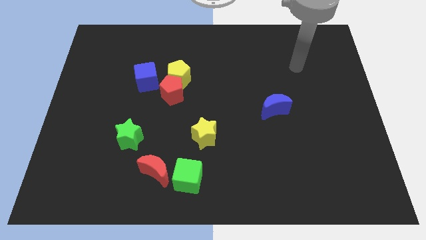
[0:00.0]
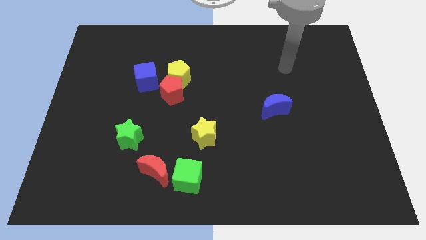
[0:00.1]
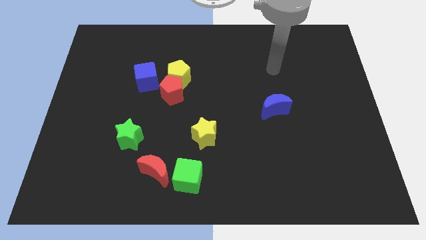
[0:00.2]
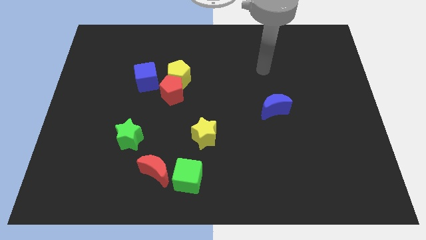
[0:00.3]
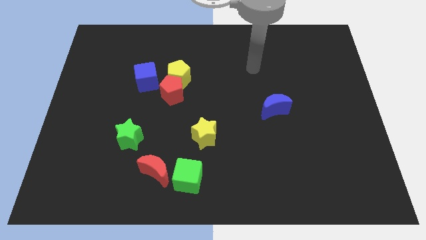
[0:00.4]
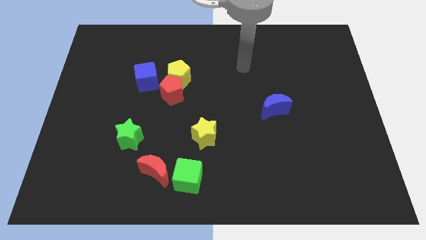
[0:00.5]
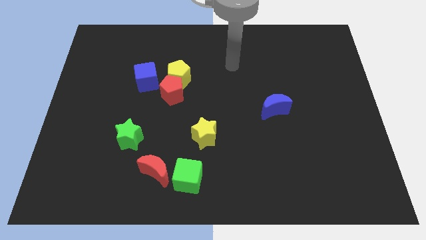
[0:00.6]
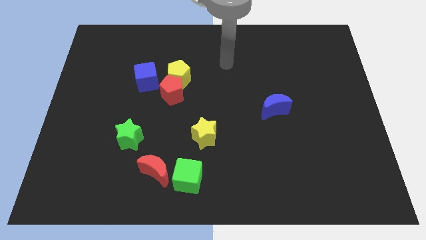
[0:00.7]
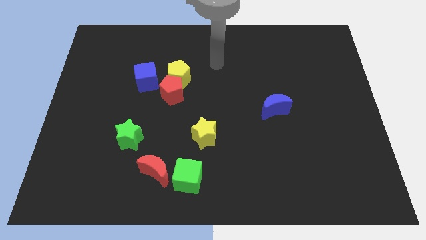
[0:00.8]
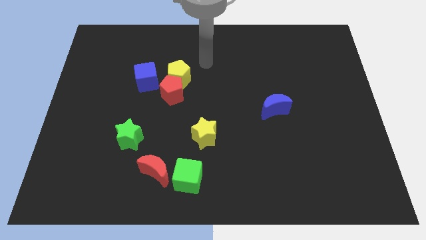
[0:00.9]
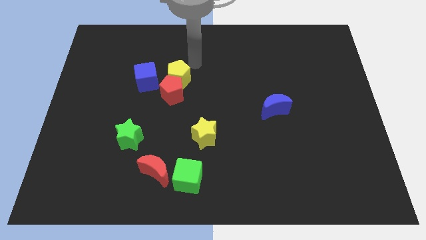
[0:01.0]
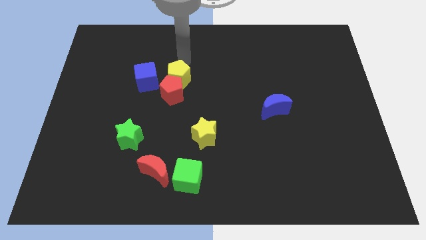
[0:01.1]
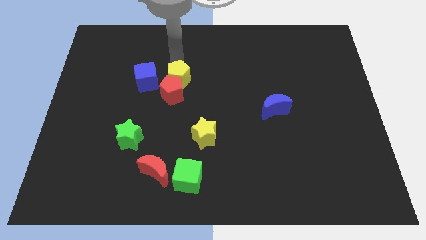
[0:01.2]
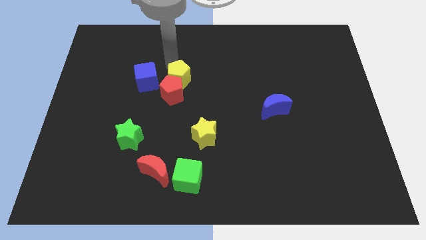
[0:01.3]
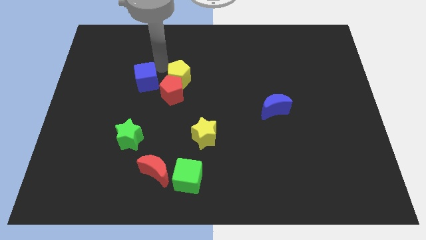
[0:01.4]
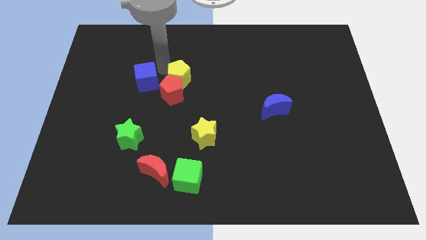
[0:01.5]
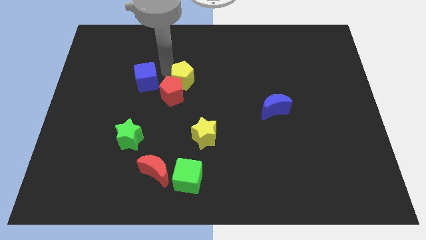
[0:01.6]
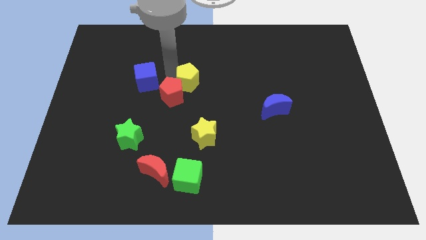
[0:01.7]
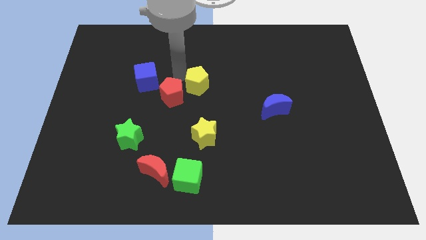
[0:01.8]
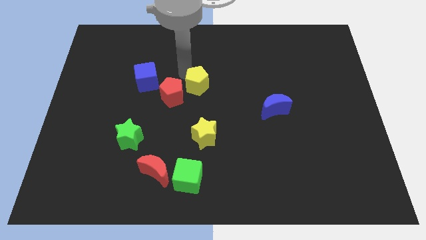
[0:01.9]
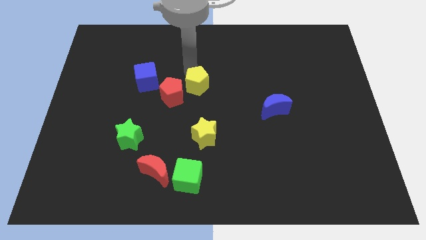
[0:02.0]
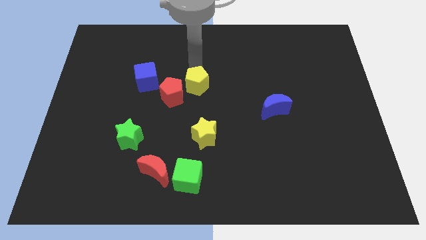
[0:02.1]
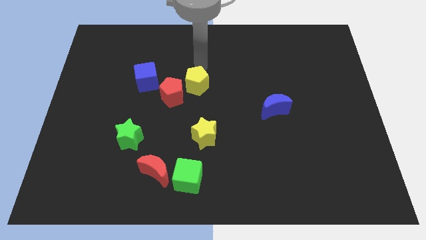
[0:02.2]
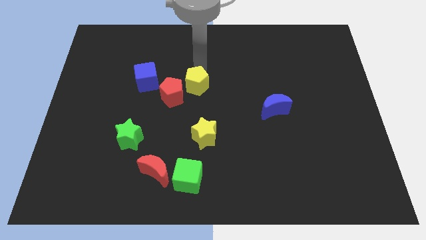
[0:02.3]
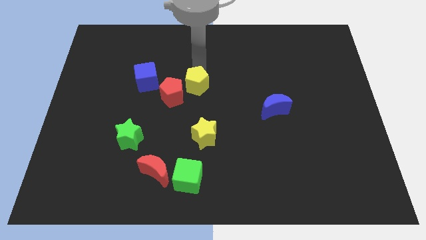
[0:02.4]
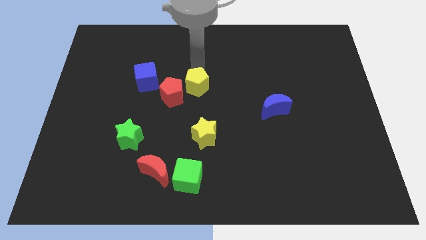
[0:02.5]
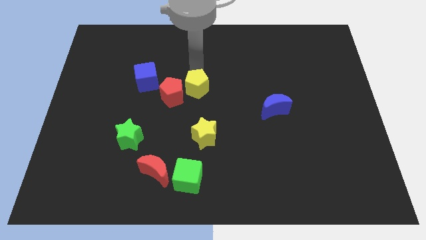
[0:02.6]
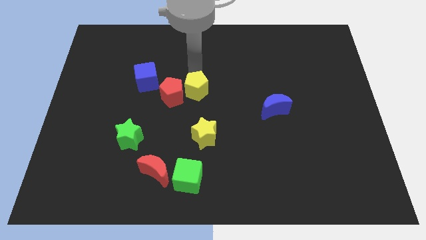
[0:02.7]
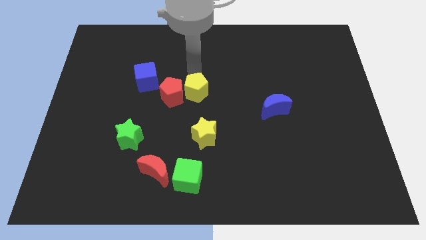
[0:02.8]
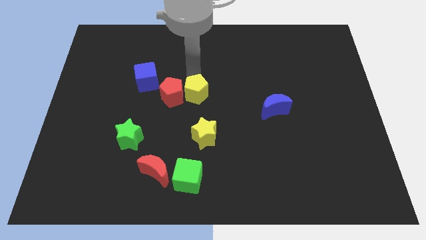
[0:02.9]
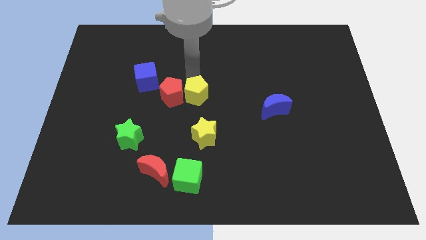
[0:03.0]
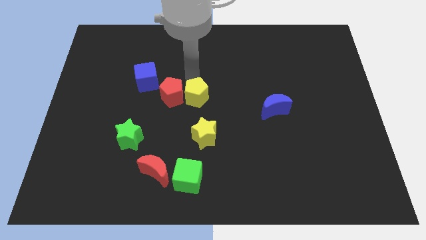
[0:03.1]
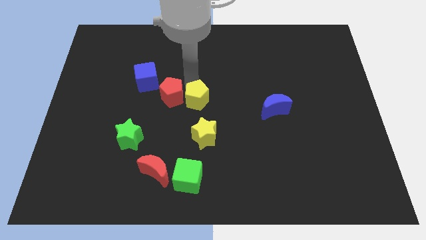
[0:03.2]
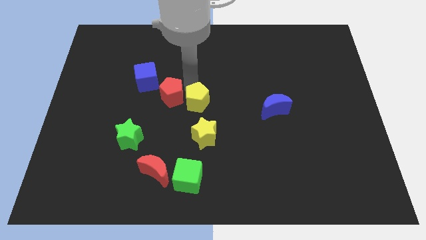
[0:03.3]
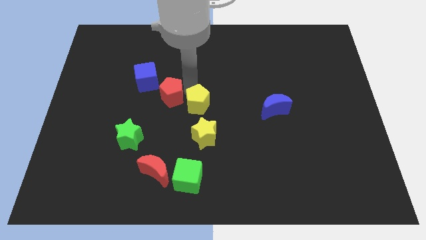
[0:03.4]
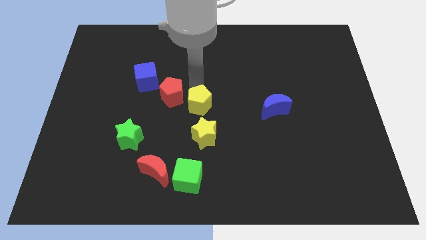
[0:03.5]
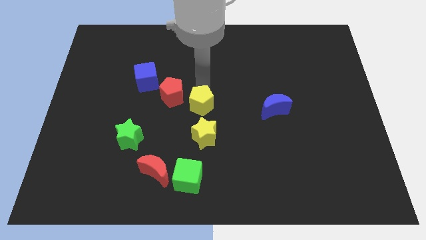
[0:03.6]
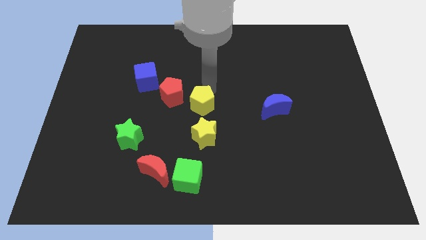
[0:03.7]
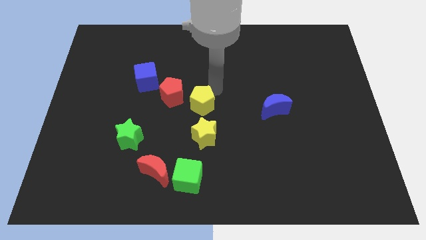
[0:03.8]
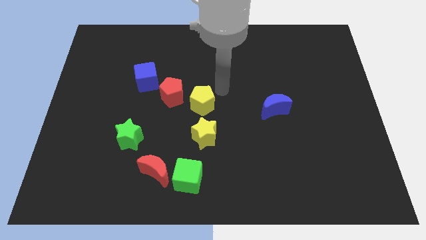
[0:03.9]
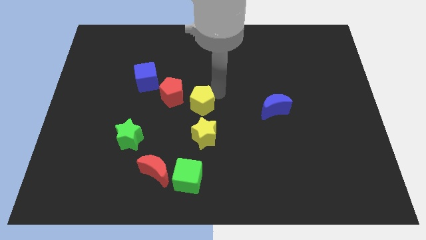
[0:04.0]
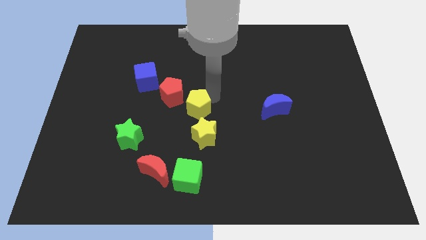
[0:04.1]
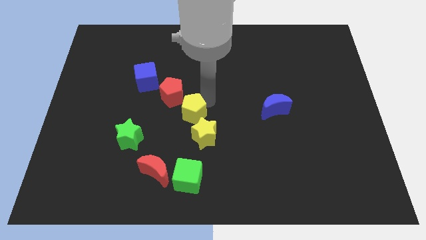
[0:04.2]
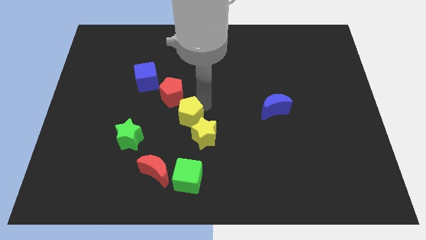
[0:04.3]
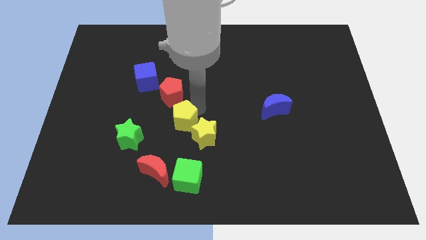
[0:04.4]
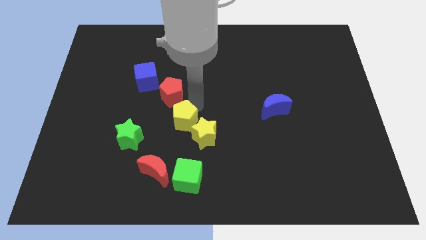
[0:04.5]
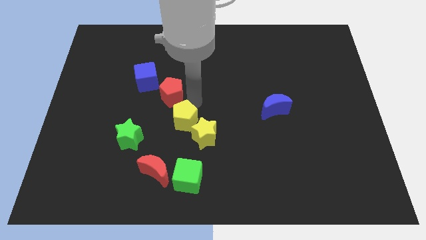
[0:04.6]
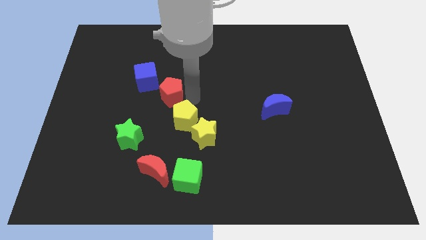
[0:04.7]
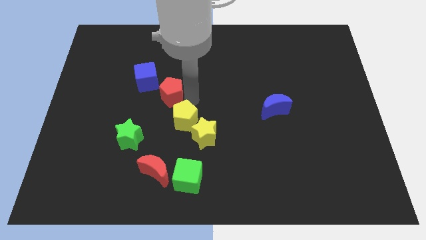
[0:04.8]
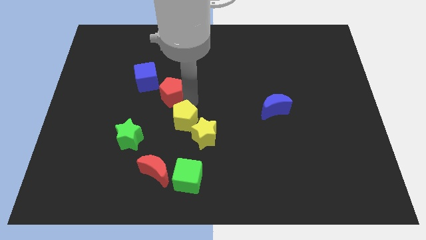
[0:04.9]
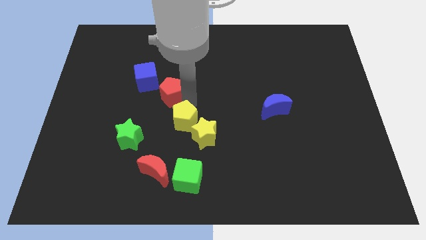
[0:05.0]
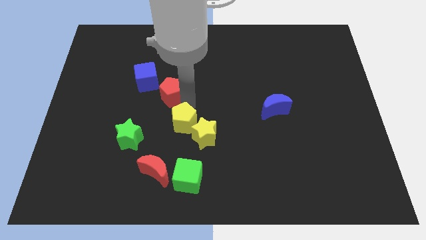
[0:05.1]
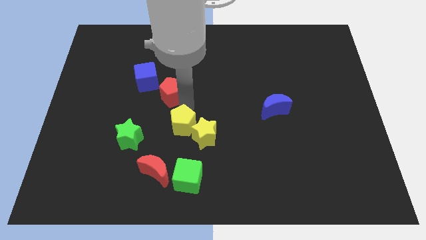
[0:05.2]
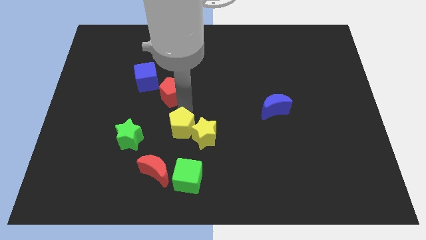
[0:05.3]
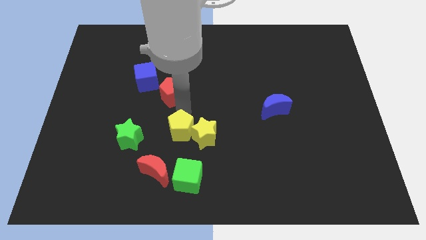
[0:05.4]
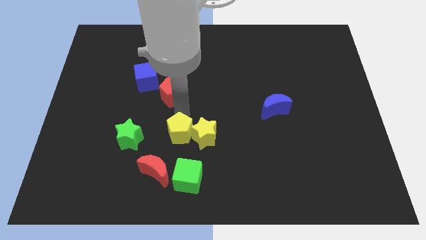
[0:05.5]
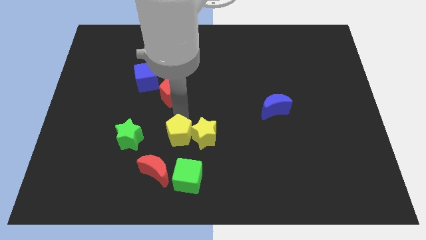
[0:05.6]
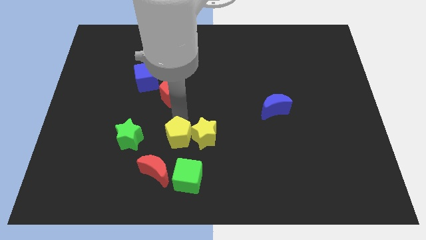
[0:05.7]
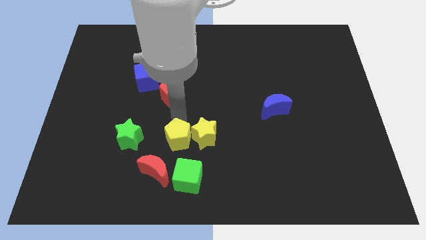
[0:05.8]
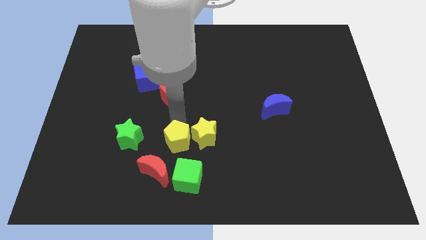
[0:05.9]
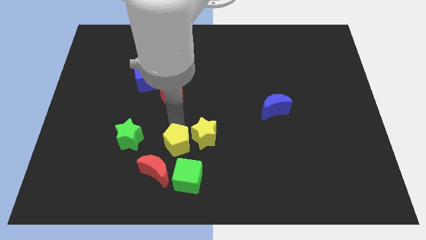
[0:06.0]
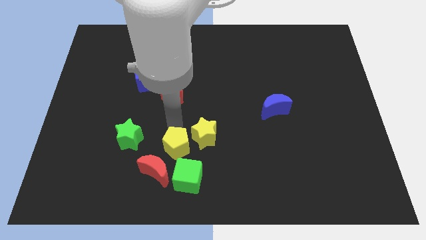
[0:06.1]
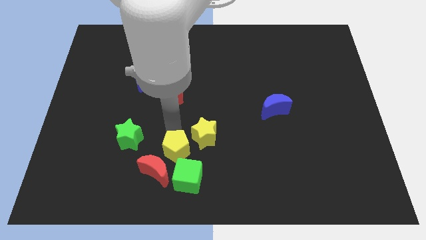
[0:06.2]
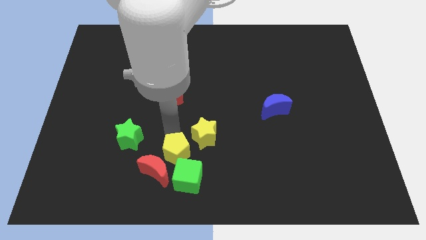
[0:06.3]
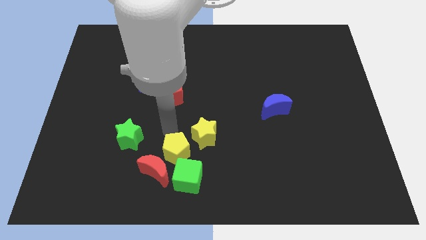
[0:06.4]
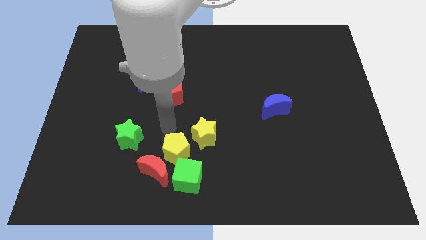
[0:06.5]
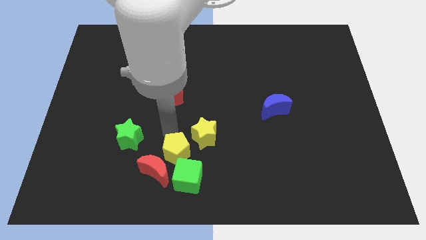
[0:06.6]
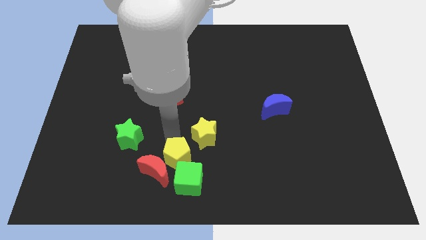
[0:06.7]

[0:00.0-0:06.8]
put the yellow pentagon to the green cube

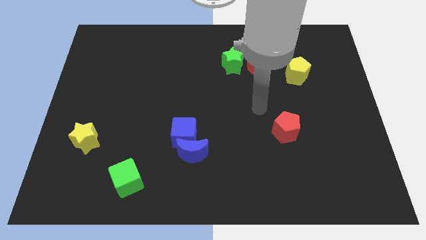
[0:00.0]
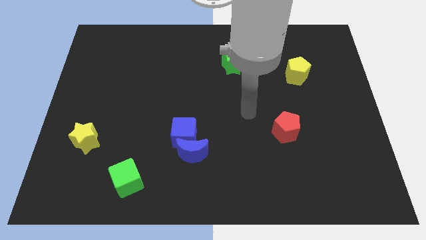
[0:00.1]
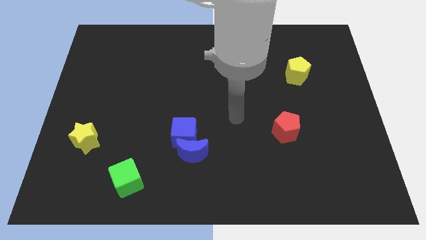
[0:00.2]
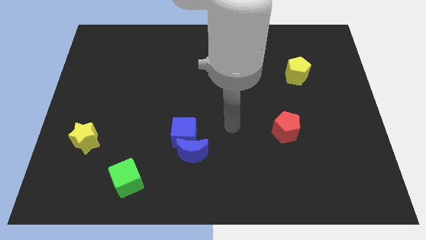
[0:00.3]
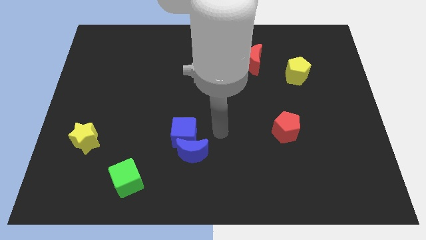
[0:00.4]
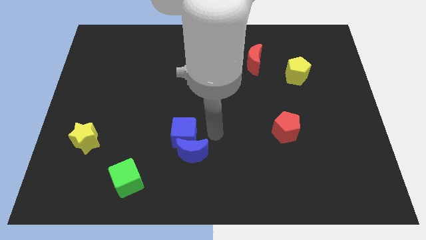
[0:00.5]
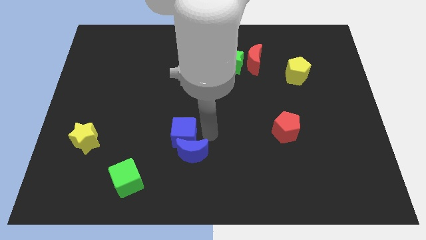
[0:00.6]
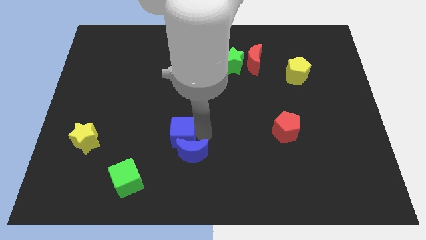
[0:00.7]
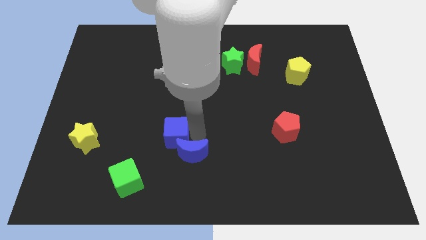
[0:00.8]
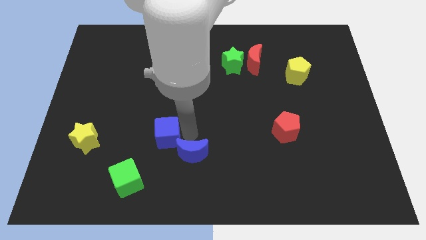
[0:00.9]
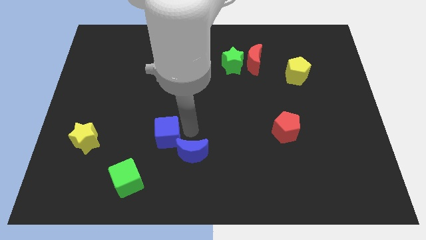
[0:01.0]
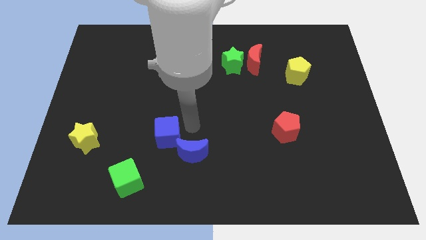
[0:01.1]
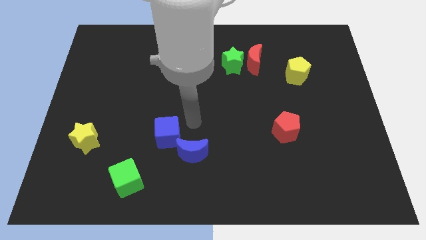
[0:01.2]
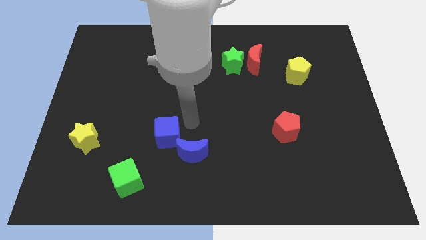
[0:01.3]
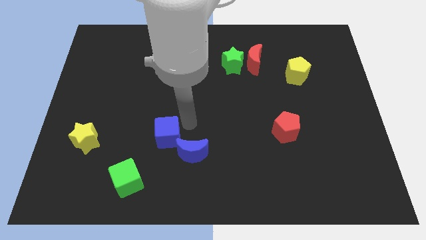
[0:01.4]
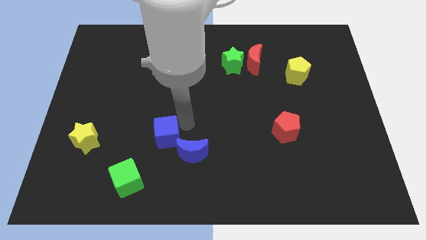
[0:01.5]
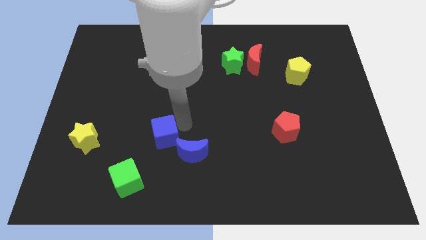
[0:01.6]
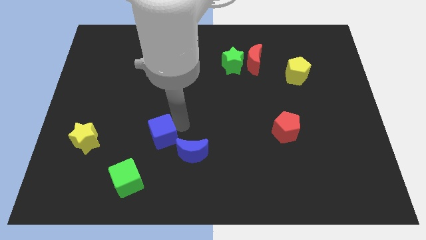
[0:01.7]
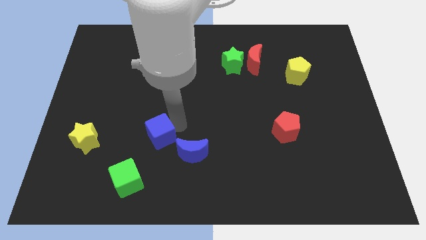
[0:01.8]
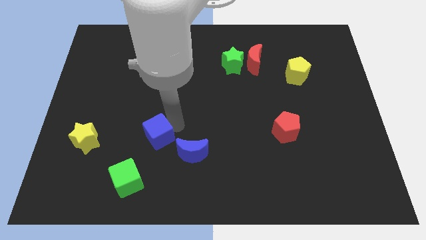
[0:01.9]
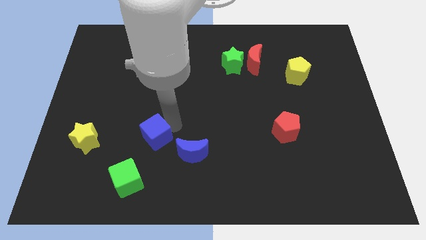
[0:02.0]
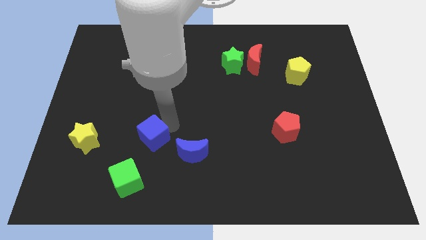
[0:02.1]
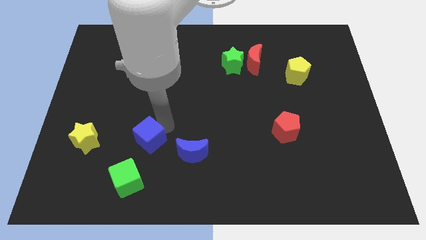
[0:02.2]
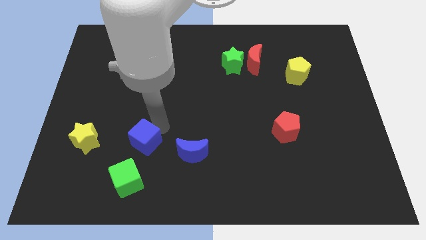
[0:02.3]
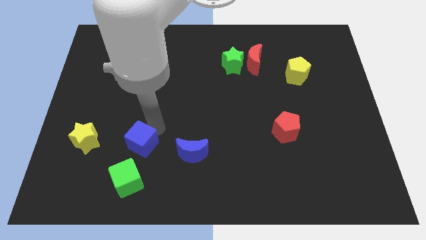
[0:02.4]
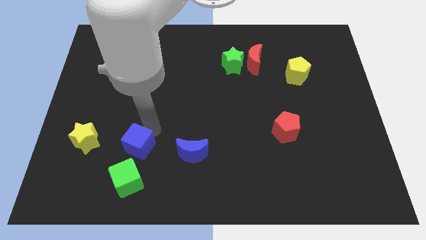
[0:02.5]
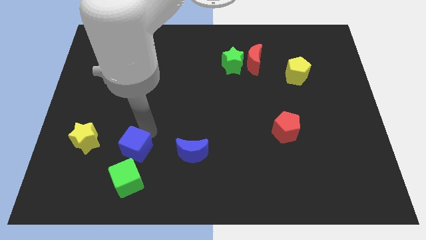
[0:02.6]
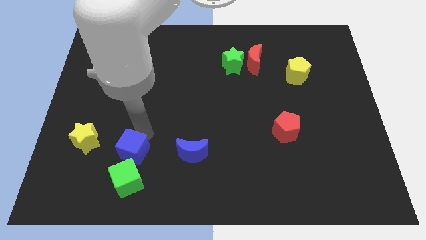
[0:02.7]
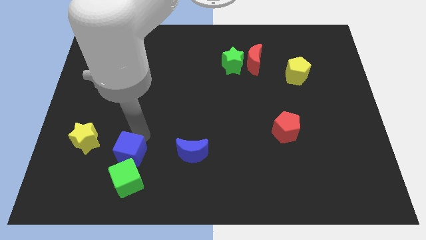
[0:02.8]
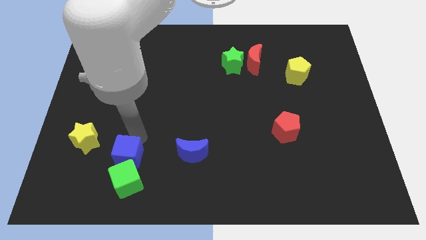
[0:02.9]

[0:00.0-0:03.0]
slide the blue cube next to the green cube
